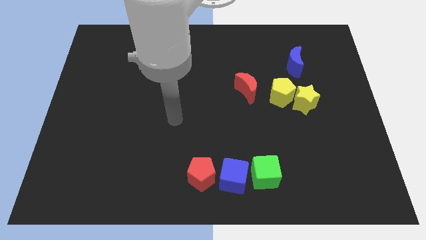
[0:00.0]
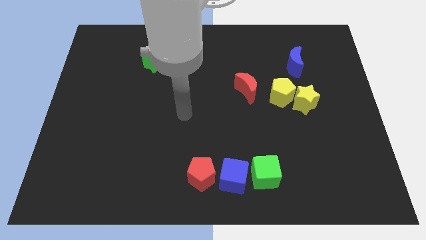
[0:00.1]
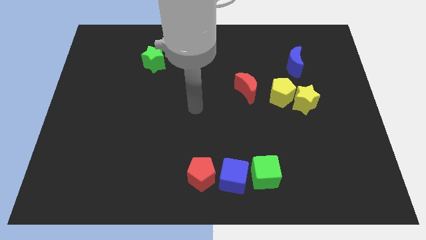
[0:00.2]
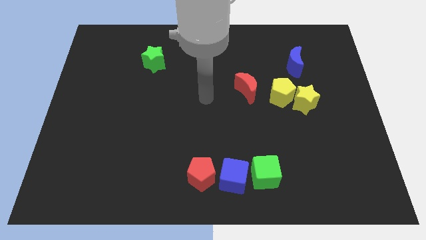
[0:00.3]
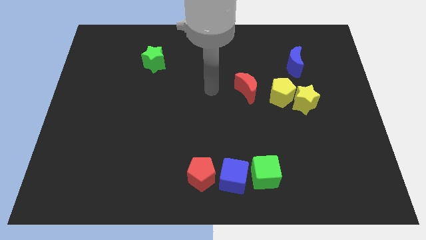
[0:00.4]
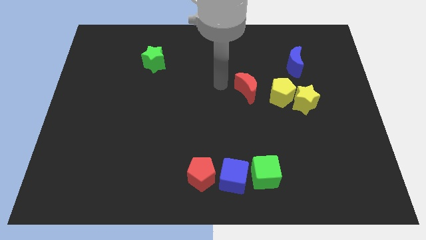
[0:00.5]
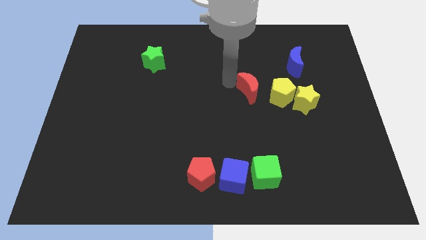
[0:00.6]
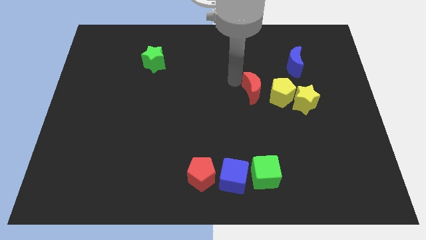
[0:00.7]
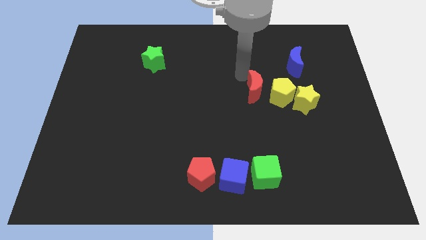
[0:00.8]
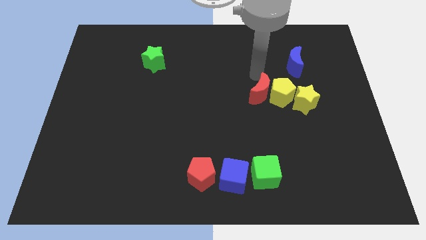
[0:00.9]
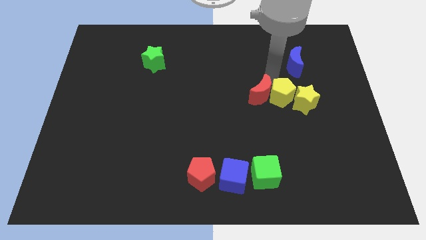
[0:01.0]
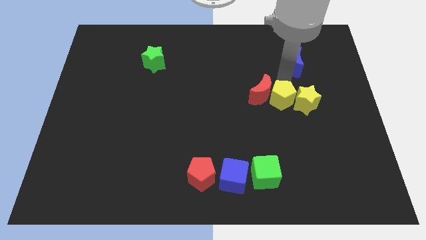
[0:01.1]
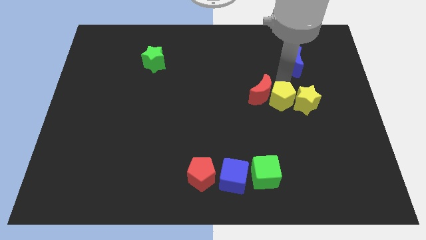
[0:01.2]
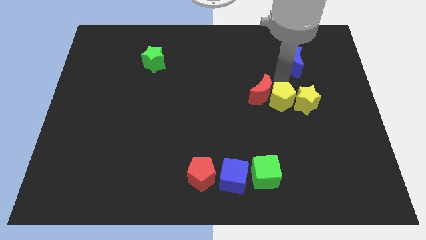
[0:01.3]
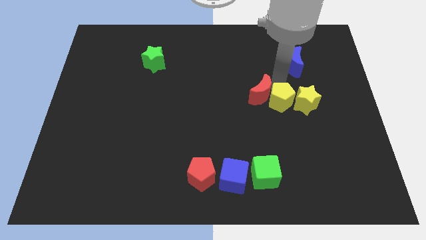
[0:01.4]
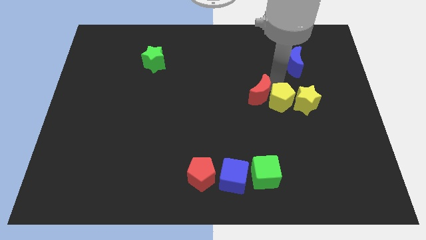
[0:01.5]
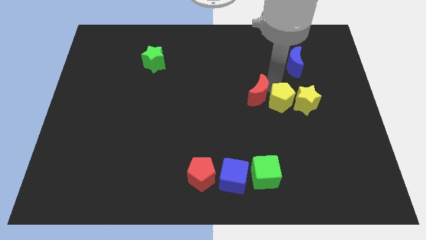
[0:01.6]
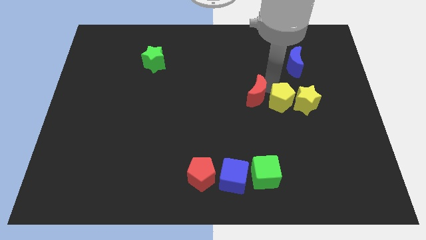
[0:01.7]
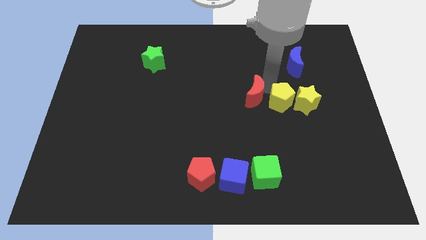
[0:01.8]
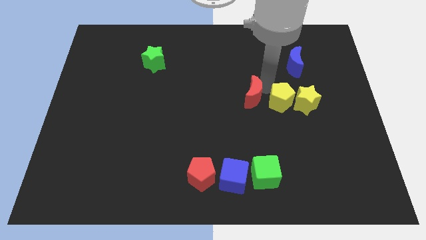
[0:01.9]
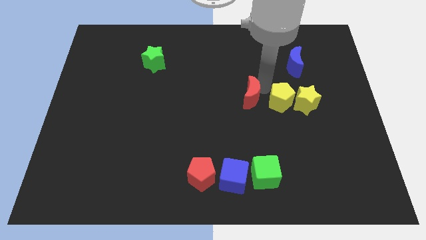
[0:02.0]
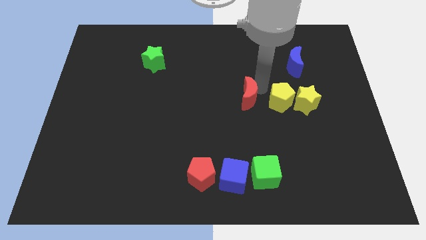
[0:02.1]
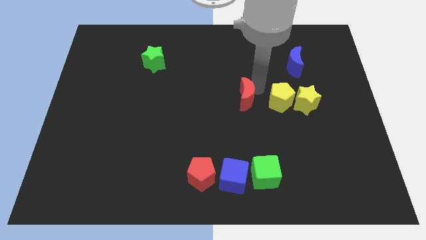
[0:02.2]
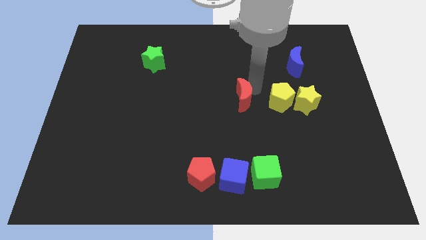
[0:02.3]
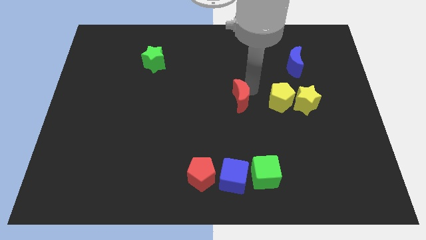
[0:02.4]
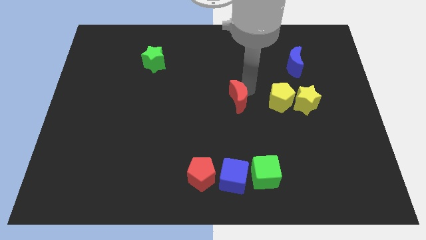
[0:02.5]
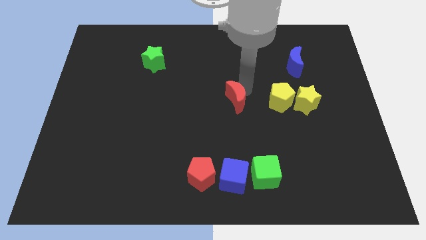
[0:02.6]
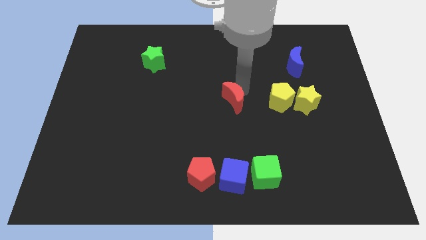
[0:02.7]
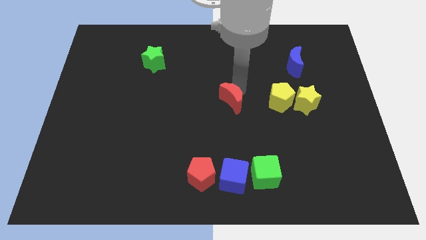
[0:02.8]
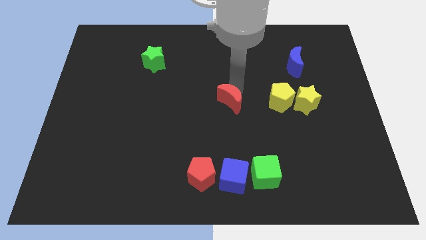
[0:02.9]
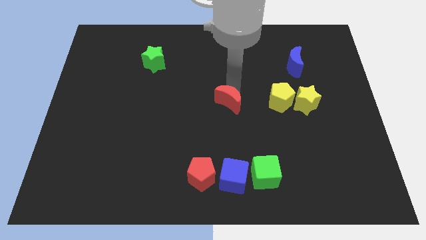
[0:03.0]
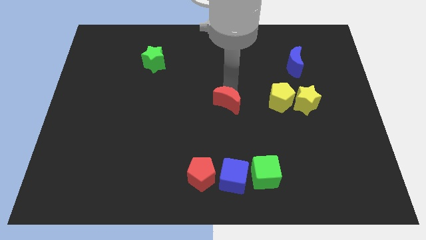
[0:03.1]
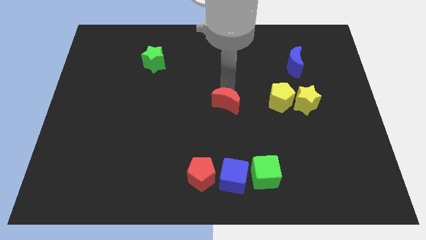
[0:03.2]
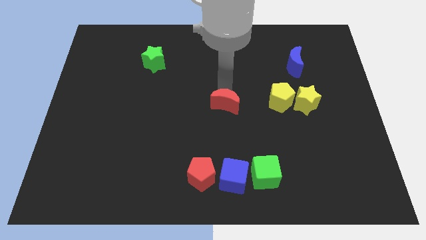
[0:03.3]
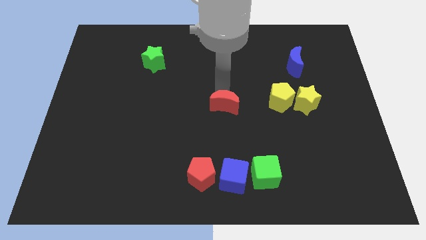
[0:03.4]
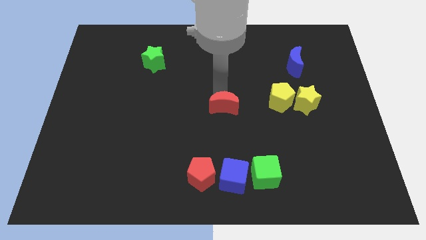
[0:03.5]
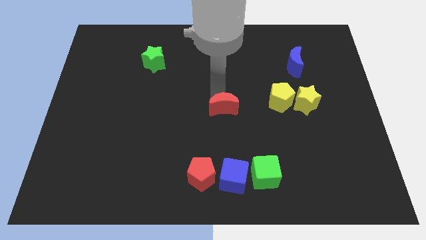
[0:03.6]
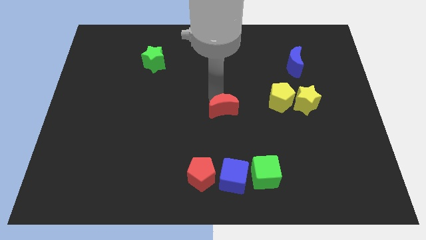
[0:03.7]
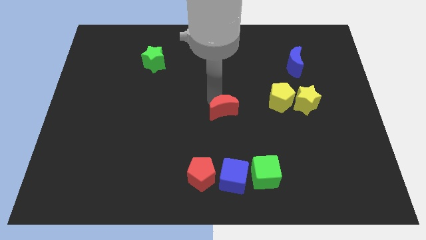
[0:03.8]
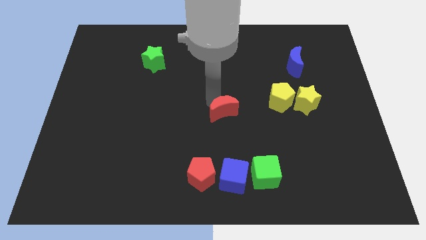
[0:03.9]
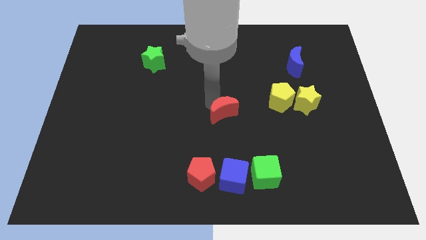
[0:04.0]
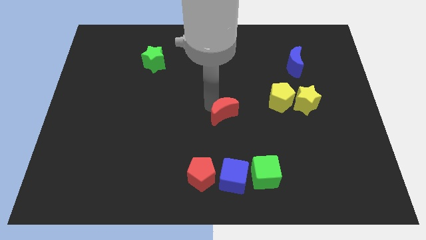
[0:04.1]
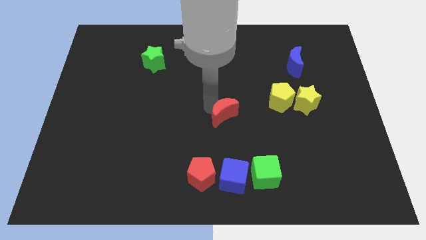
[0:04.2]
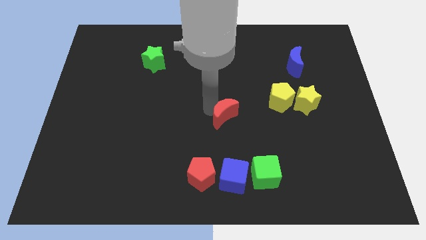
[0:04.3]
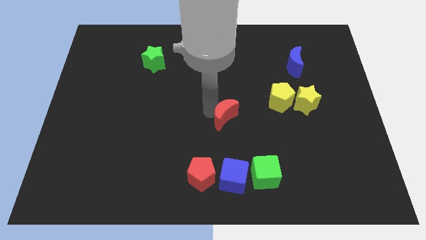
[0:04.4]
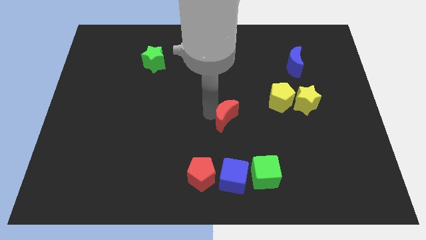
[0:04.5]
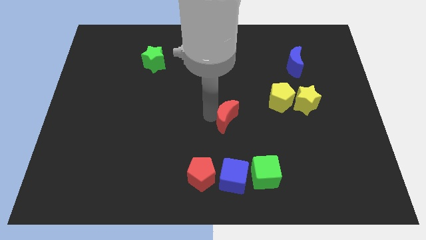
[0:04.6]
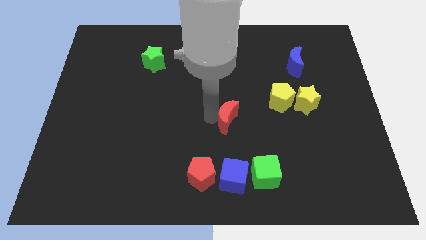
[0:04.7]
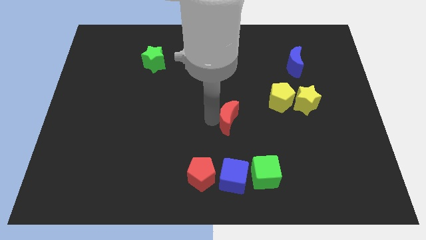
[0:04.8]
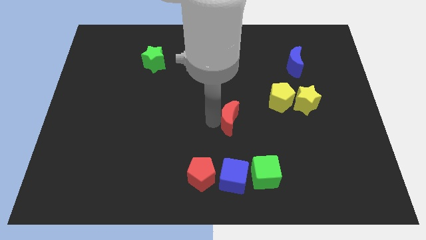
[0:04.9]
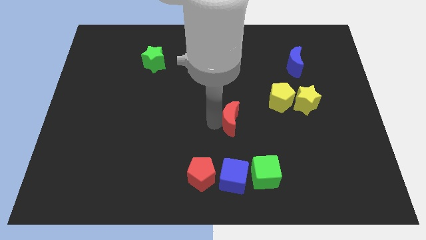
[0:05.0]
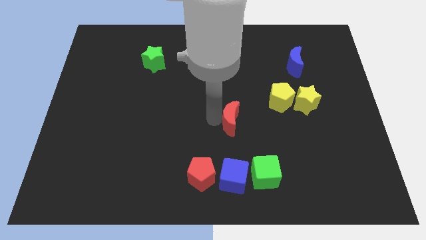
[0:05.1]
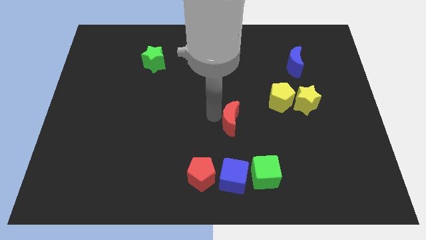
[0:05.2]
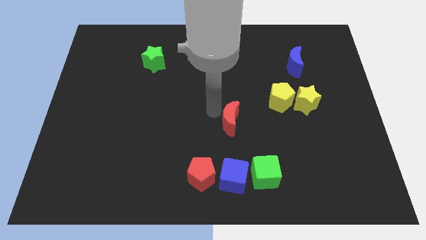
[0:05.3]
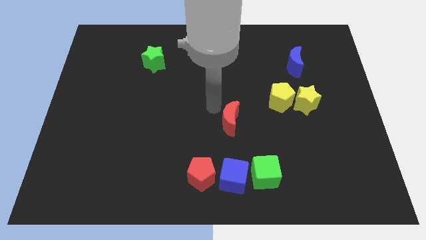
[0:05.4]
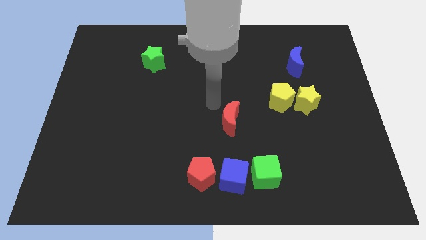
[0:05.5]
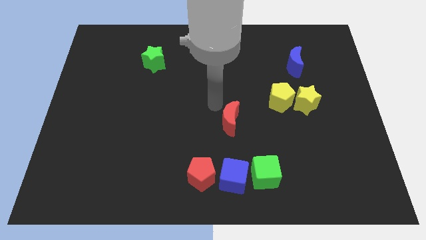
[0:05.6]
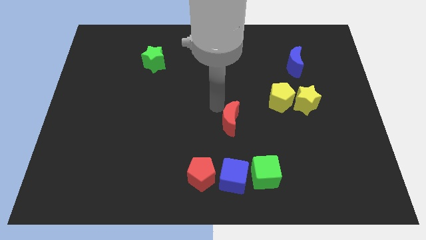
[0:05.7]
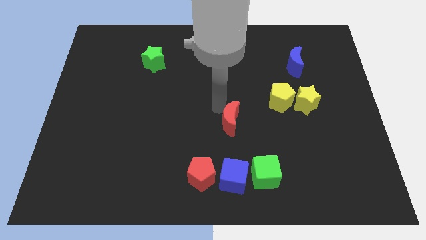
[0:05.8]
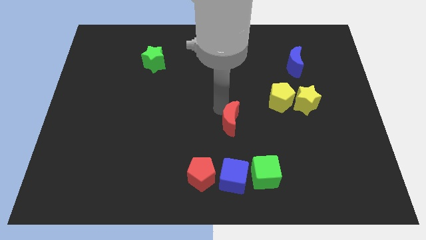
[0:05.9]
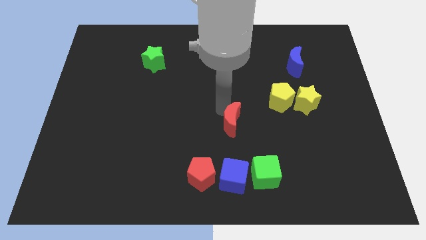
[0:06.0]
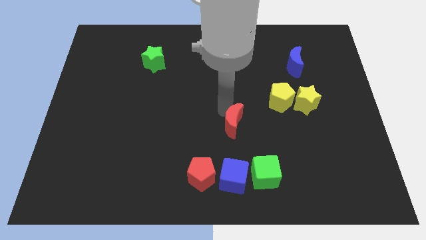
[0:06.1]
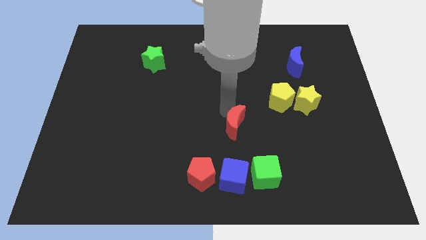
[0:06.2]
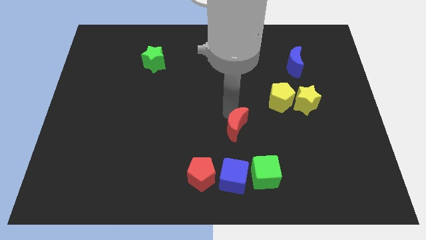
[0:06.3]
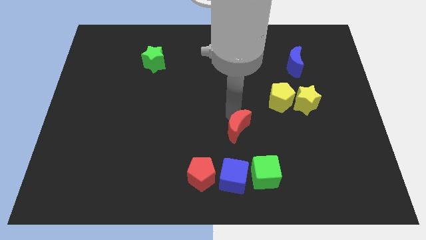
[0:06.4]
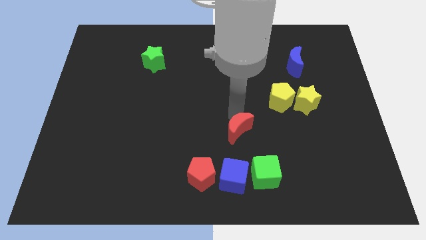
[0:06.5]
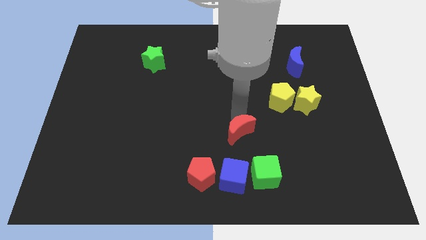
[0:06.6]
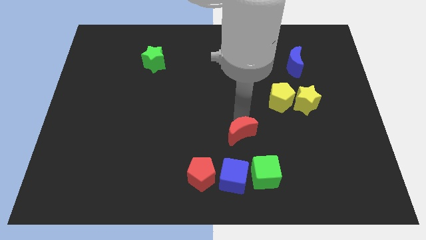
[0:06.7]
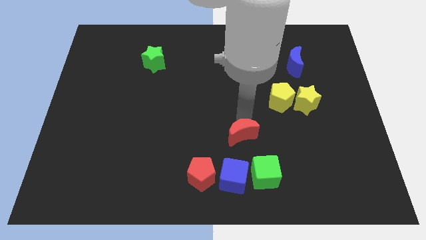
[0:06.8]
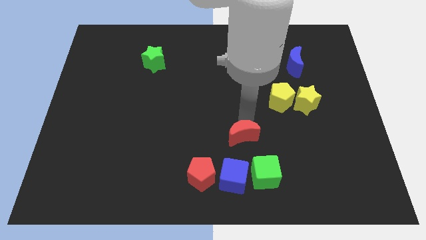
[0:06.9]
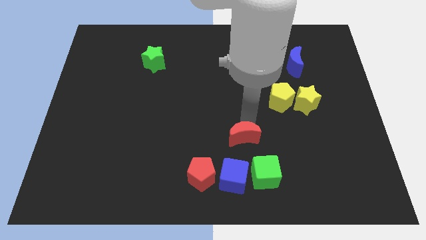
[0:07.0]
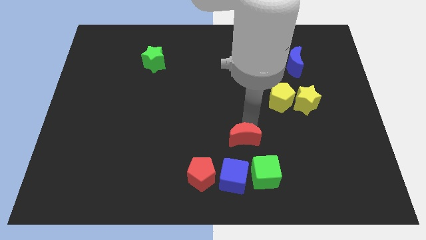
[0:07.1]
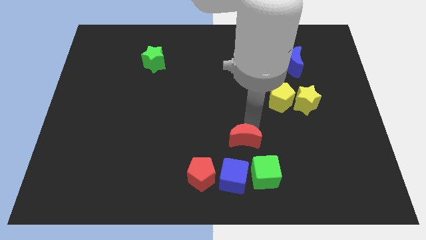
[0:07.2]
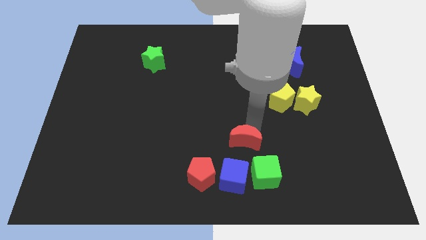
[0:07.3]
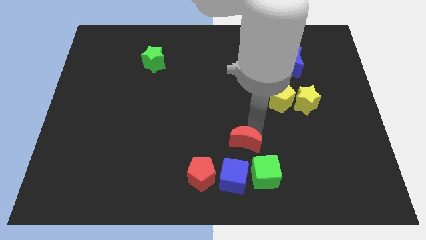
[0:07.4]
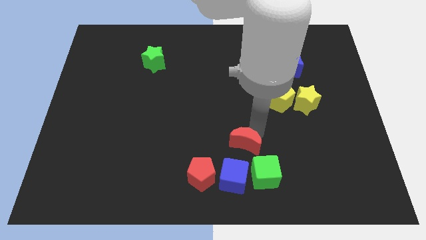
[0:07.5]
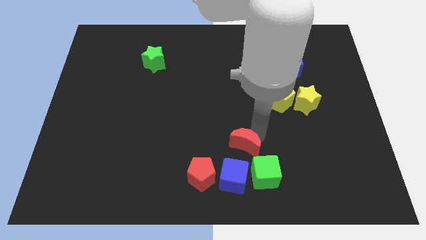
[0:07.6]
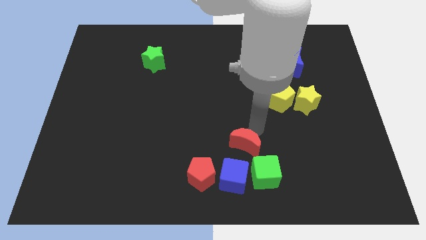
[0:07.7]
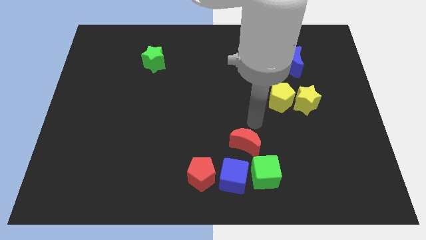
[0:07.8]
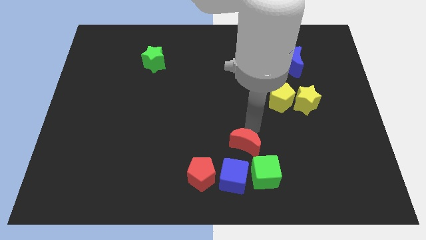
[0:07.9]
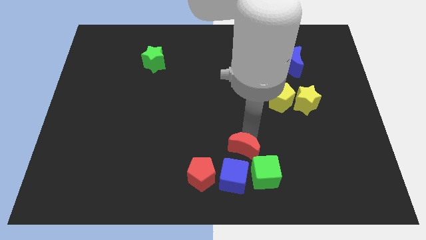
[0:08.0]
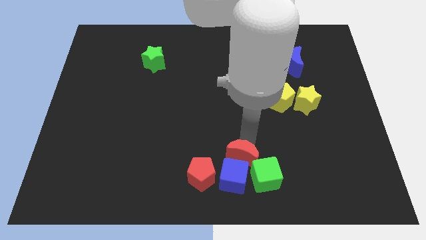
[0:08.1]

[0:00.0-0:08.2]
put the red moon close to the blue cube
